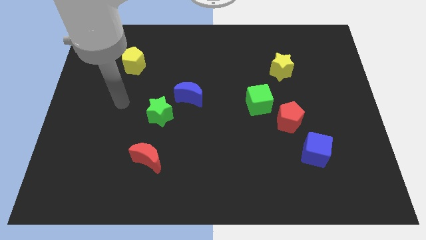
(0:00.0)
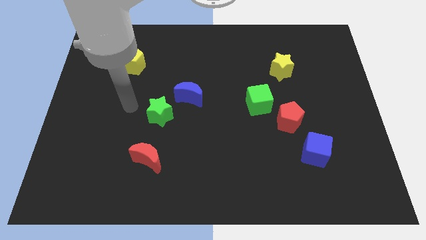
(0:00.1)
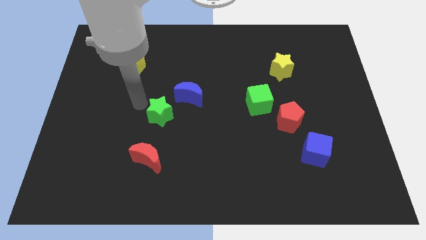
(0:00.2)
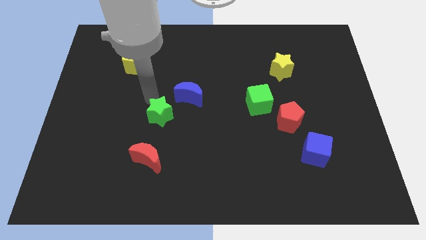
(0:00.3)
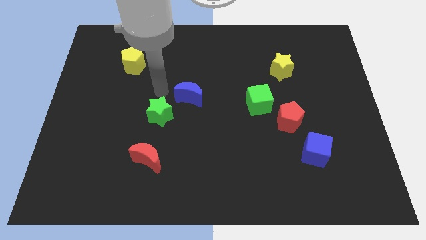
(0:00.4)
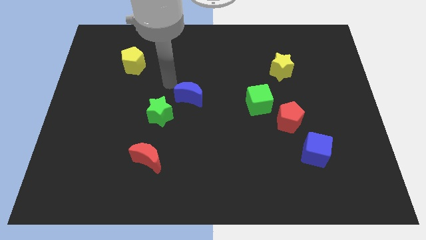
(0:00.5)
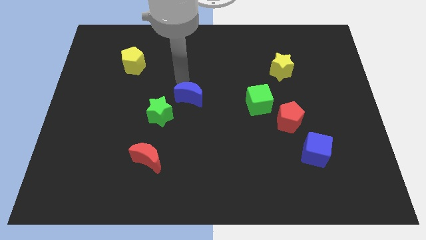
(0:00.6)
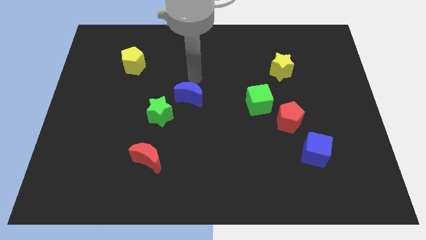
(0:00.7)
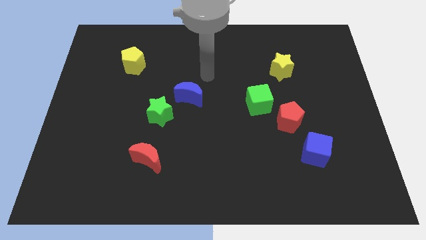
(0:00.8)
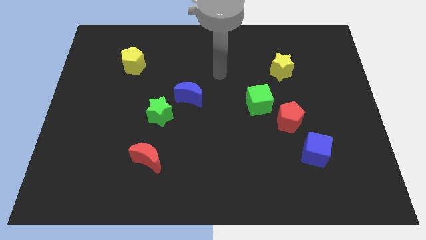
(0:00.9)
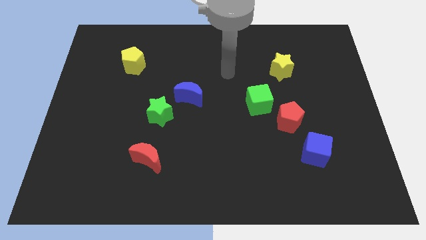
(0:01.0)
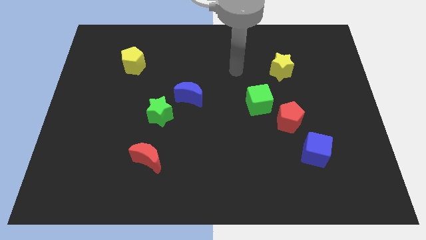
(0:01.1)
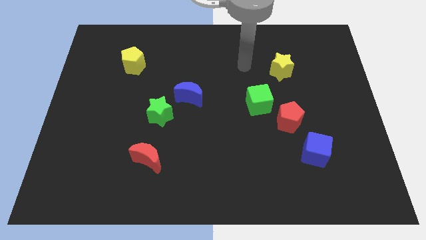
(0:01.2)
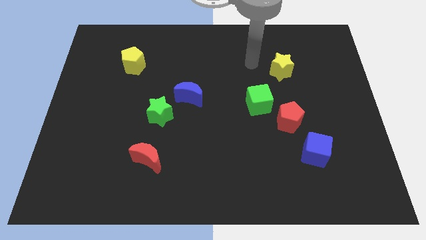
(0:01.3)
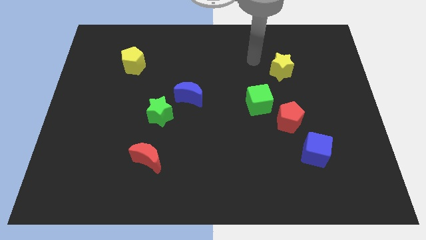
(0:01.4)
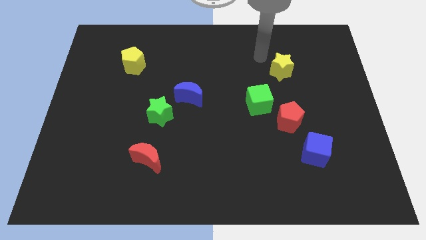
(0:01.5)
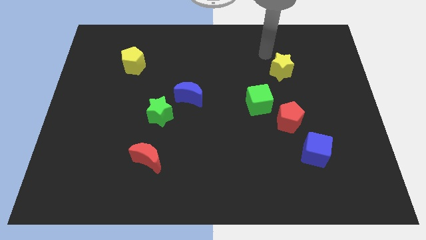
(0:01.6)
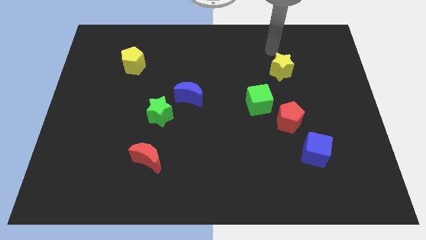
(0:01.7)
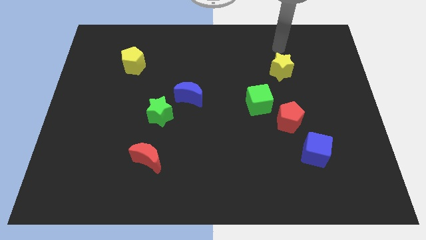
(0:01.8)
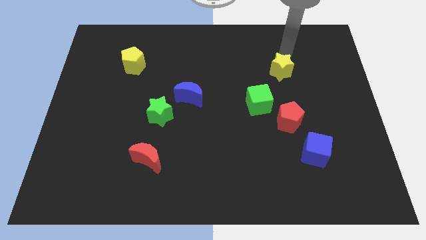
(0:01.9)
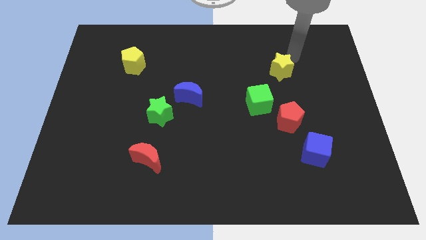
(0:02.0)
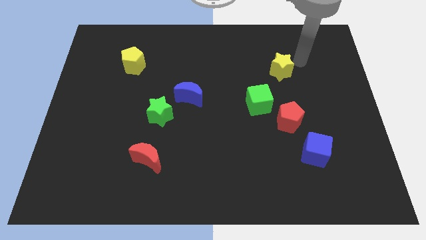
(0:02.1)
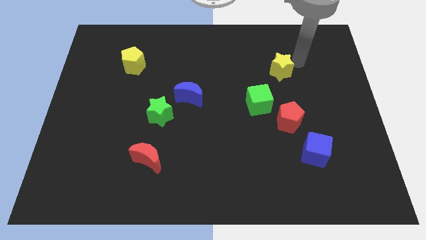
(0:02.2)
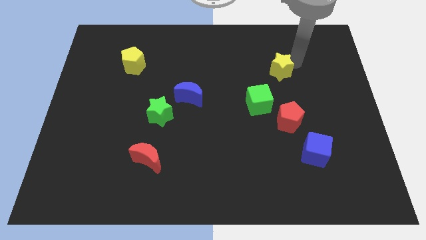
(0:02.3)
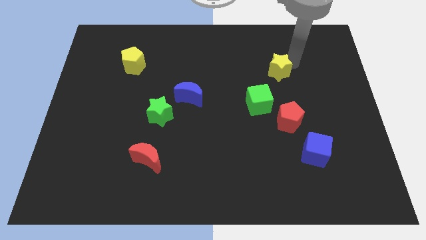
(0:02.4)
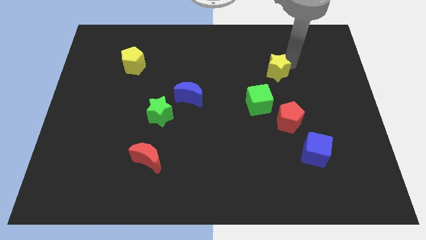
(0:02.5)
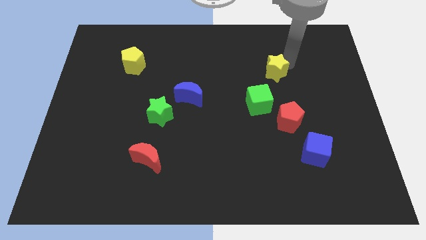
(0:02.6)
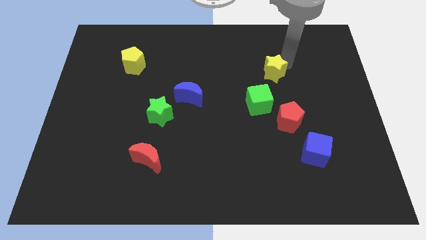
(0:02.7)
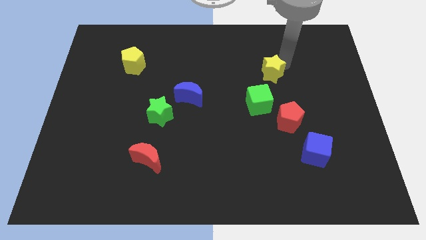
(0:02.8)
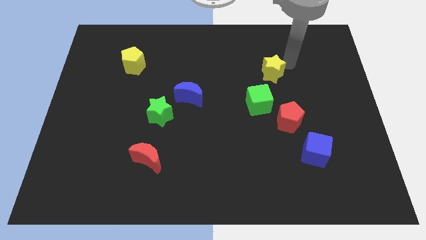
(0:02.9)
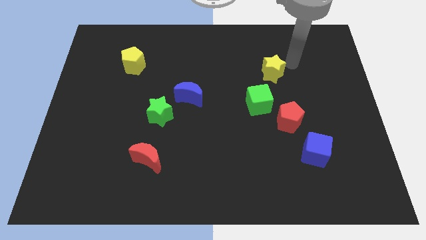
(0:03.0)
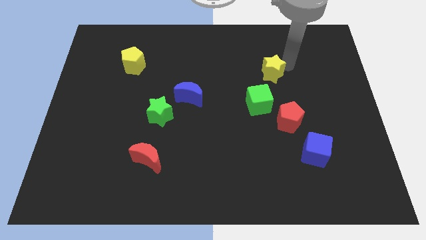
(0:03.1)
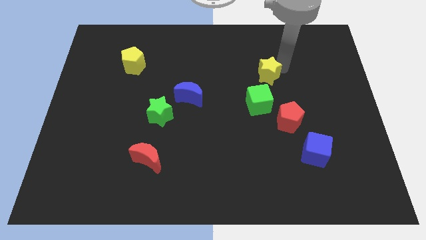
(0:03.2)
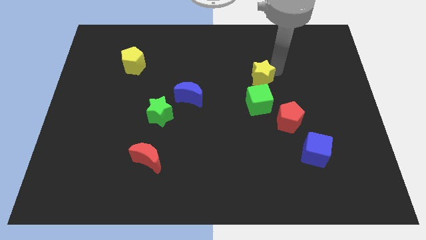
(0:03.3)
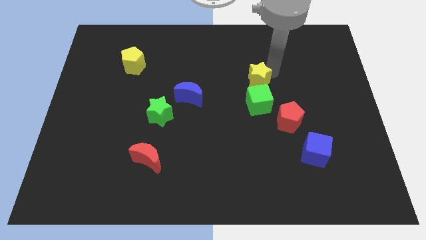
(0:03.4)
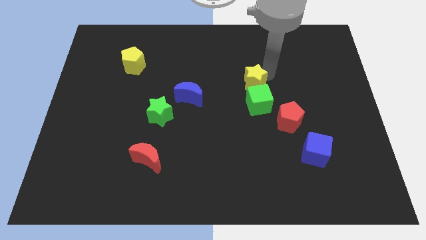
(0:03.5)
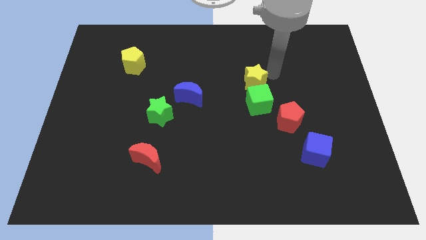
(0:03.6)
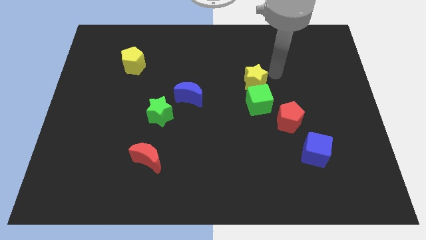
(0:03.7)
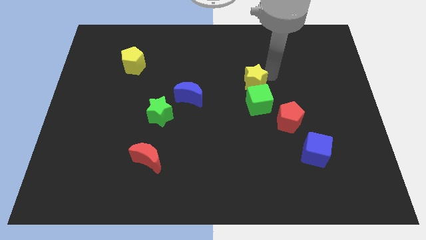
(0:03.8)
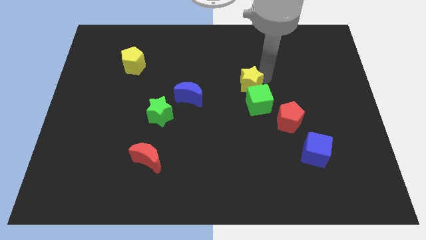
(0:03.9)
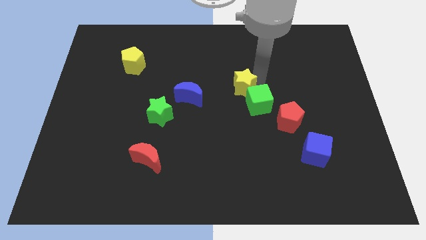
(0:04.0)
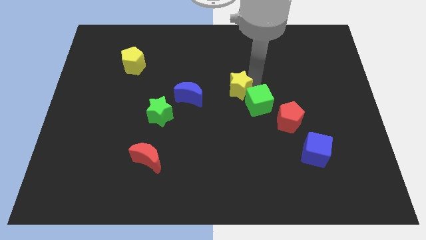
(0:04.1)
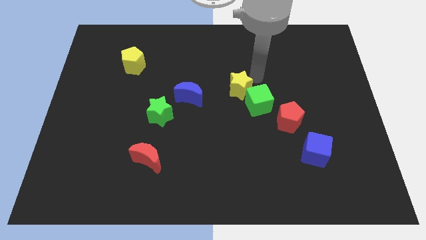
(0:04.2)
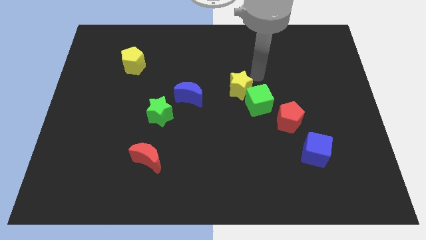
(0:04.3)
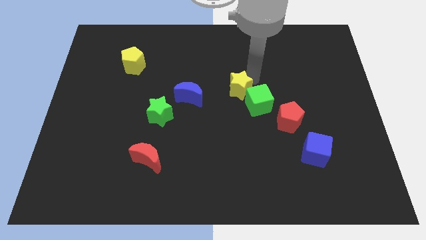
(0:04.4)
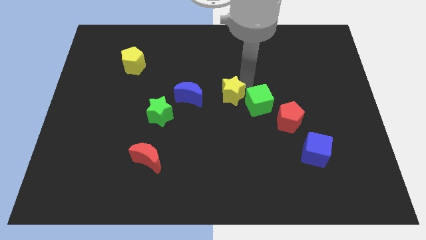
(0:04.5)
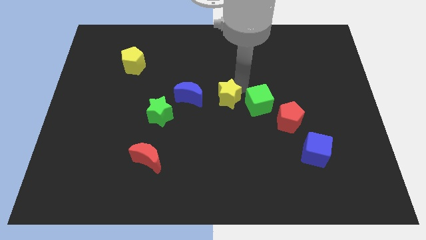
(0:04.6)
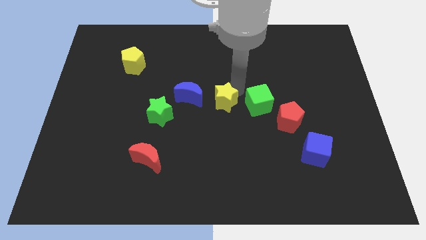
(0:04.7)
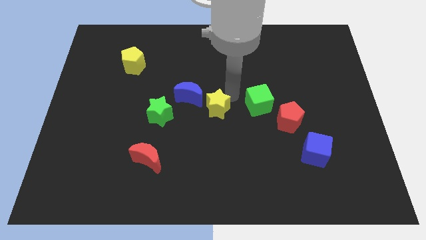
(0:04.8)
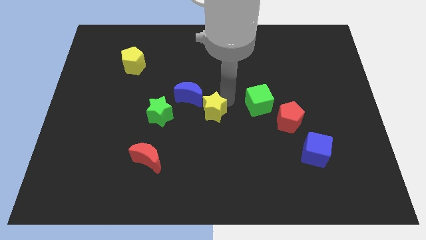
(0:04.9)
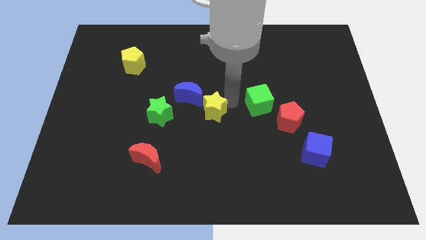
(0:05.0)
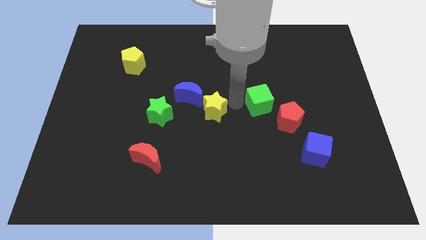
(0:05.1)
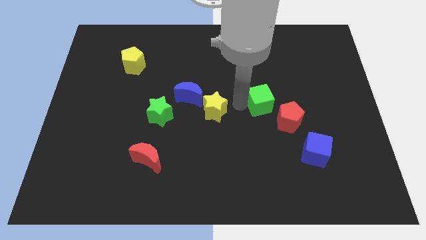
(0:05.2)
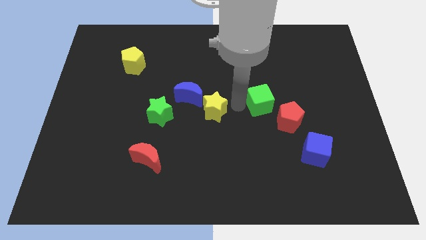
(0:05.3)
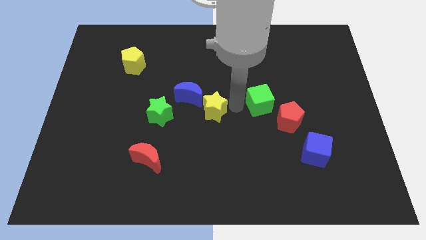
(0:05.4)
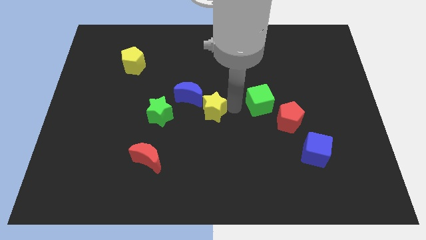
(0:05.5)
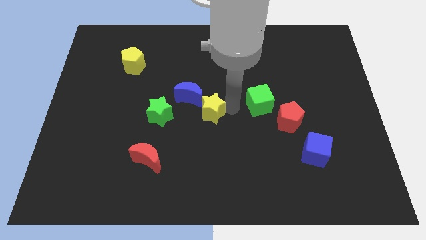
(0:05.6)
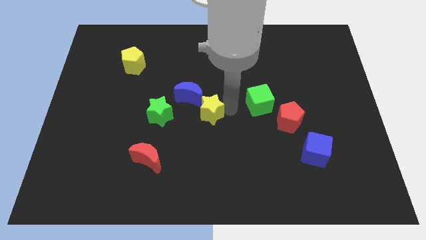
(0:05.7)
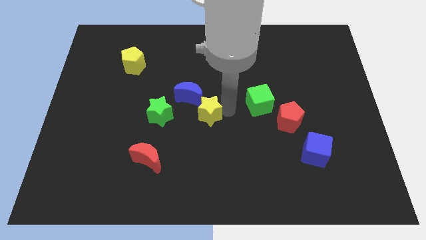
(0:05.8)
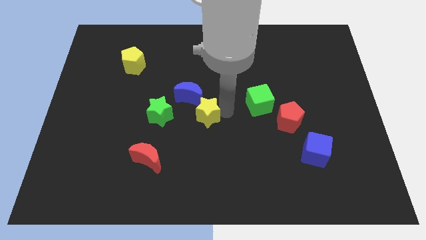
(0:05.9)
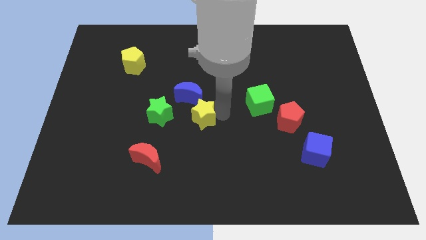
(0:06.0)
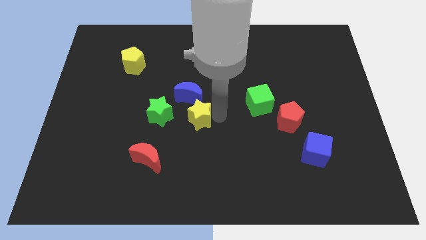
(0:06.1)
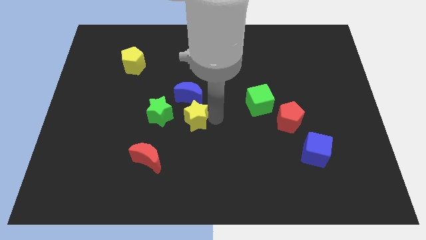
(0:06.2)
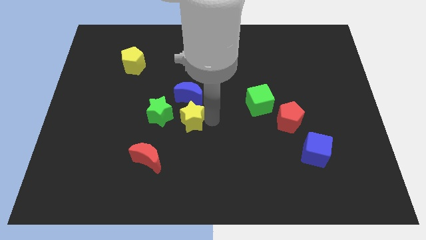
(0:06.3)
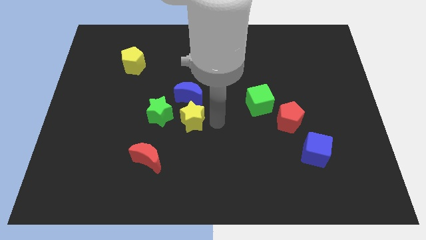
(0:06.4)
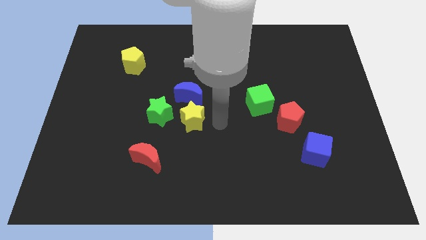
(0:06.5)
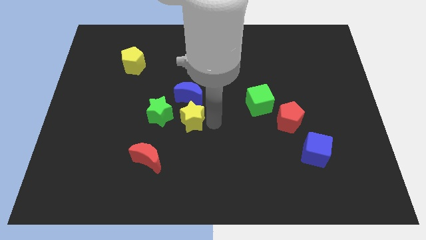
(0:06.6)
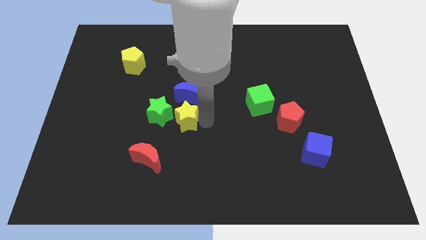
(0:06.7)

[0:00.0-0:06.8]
slide the yellow star next to the green star
